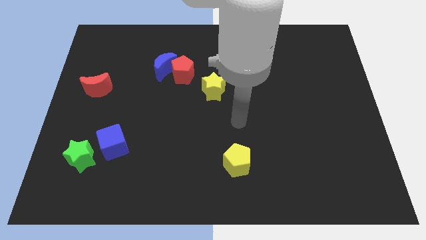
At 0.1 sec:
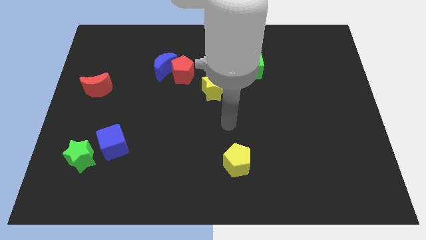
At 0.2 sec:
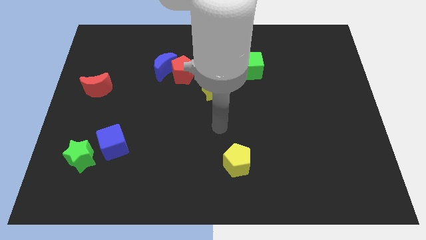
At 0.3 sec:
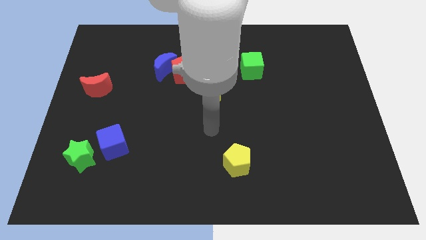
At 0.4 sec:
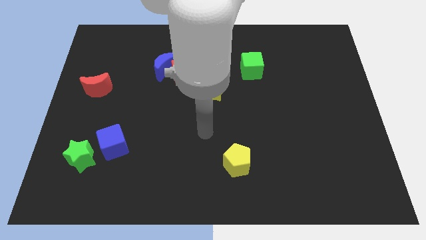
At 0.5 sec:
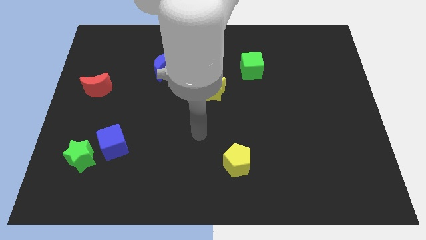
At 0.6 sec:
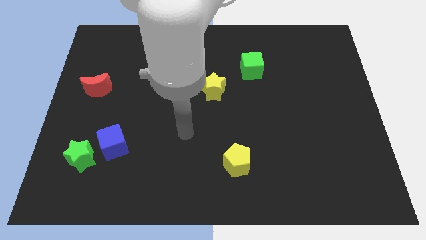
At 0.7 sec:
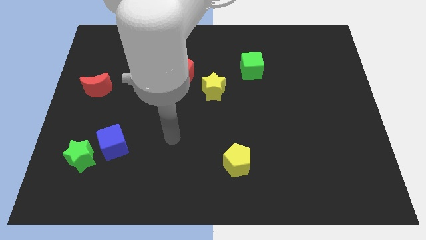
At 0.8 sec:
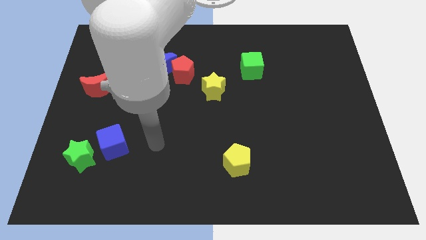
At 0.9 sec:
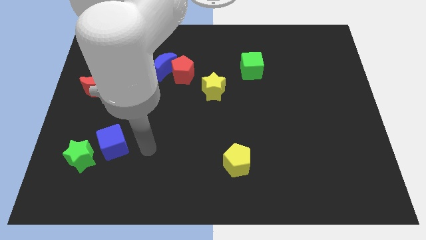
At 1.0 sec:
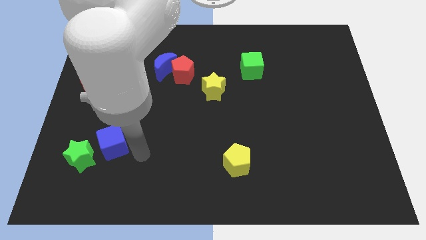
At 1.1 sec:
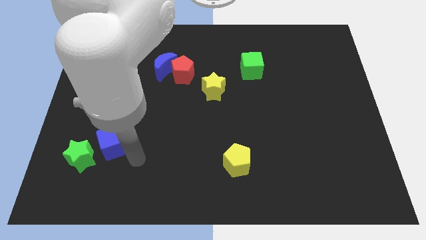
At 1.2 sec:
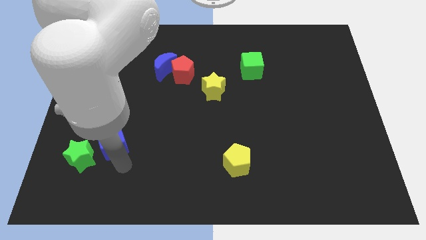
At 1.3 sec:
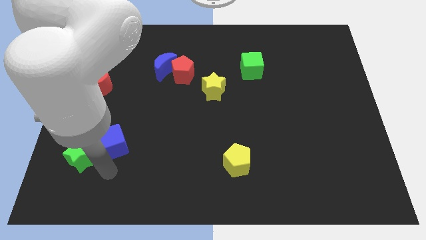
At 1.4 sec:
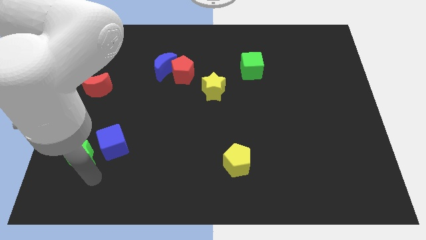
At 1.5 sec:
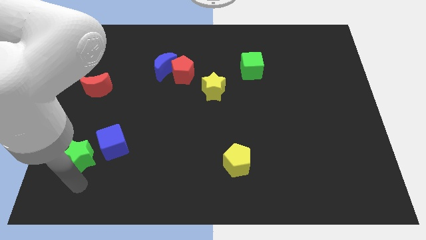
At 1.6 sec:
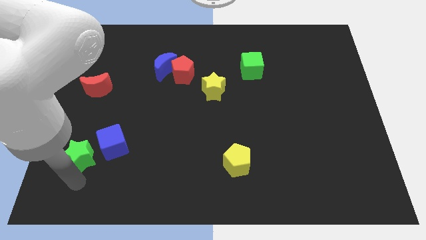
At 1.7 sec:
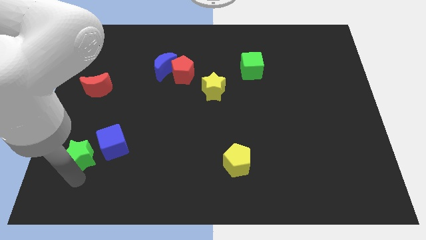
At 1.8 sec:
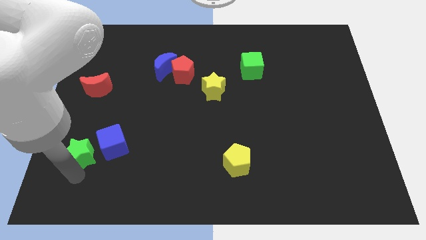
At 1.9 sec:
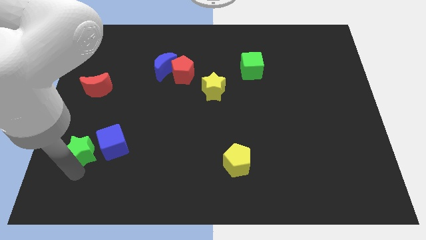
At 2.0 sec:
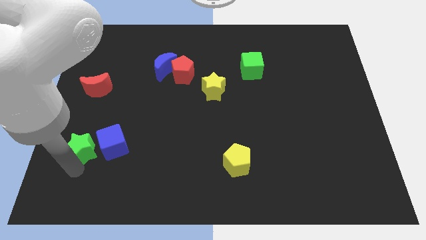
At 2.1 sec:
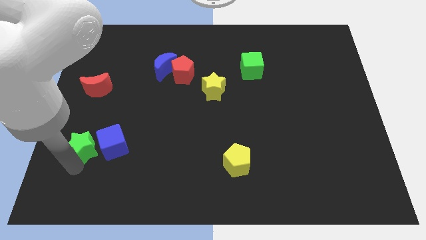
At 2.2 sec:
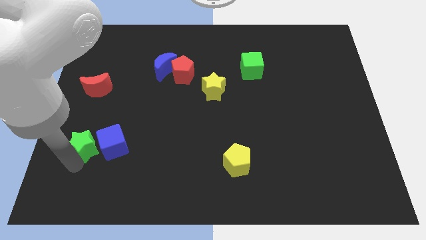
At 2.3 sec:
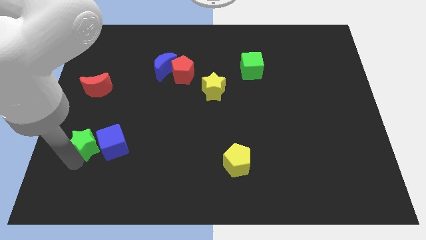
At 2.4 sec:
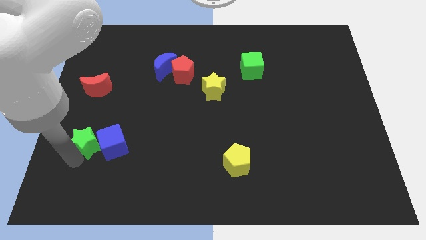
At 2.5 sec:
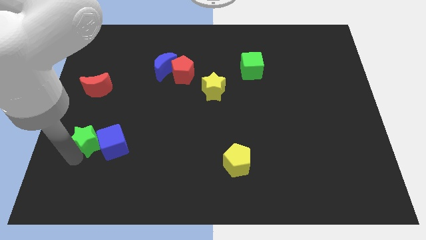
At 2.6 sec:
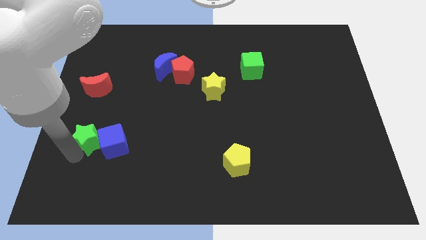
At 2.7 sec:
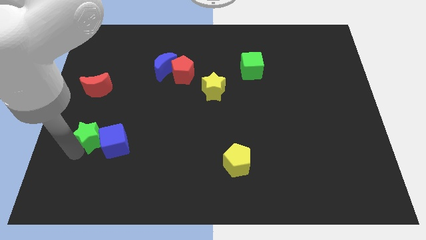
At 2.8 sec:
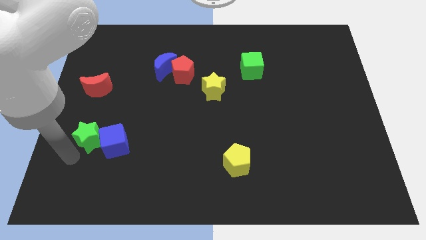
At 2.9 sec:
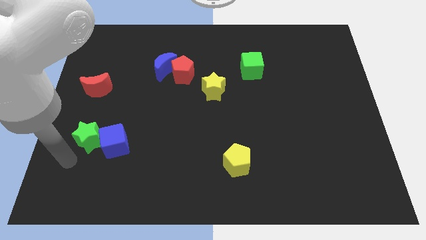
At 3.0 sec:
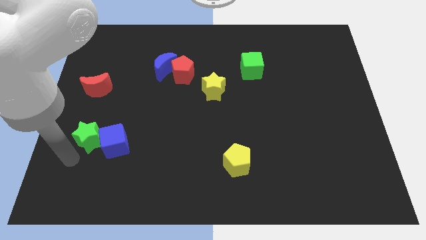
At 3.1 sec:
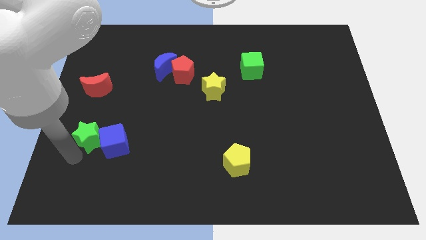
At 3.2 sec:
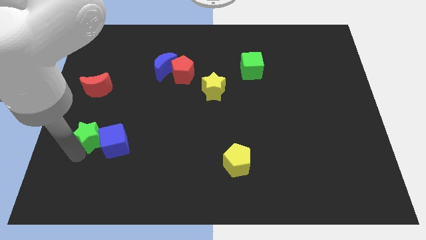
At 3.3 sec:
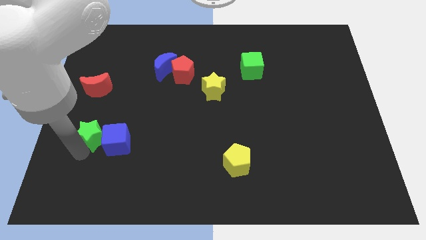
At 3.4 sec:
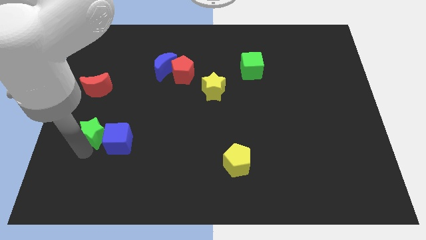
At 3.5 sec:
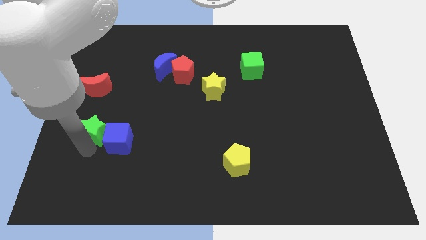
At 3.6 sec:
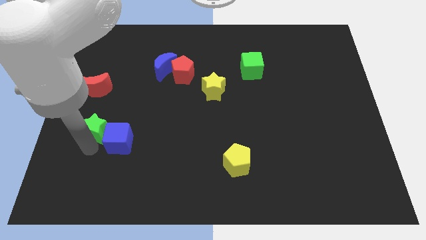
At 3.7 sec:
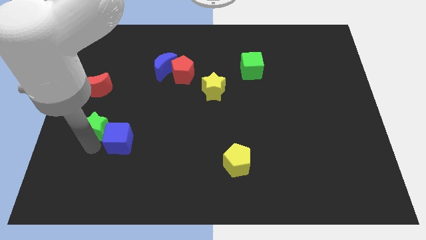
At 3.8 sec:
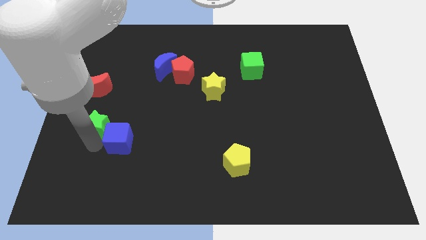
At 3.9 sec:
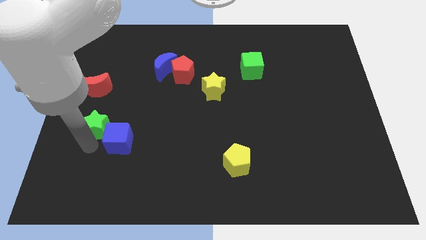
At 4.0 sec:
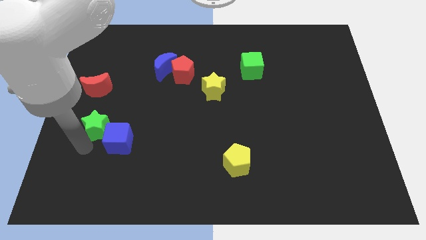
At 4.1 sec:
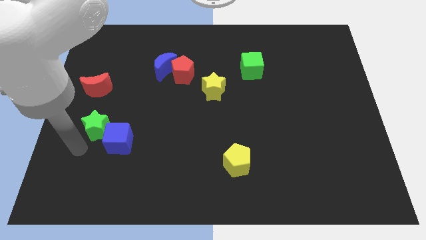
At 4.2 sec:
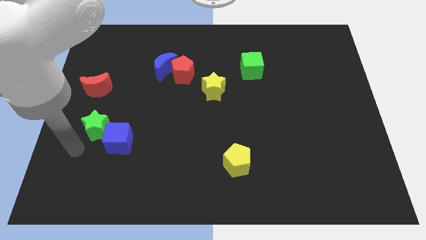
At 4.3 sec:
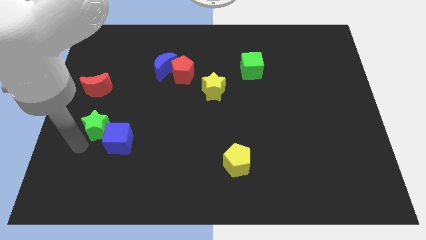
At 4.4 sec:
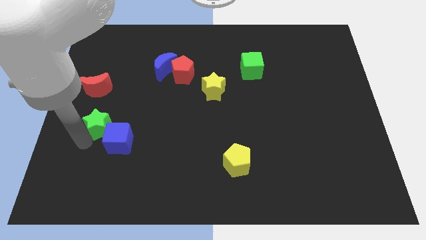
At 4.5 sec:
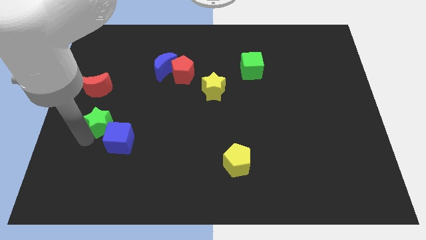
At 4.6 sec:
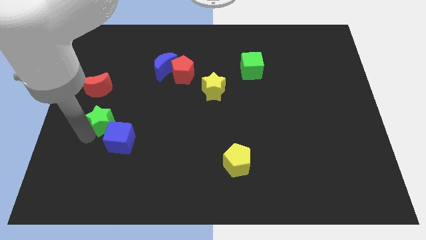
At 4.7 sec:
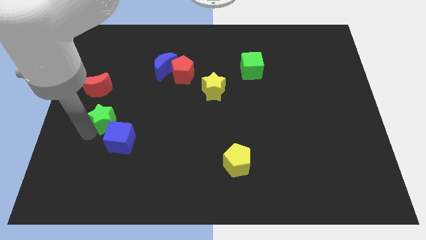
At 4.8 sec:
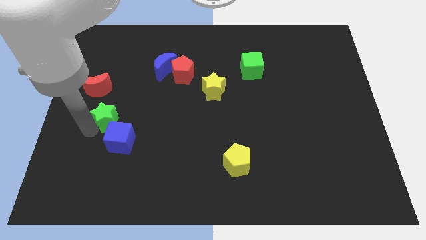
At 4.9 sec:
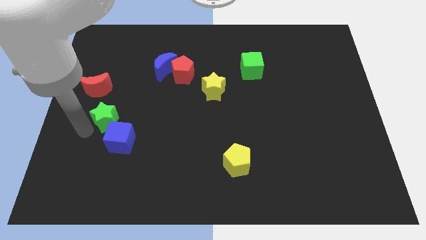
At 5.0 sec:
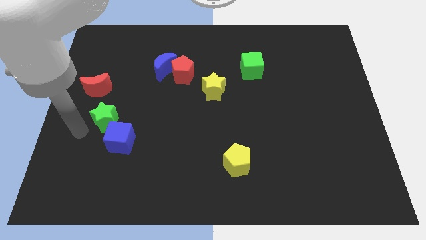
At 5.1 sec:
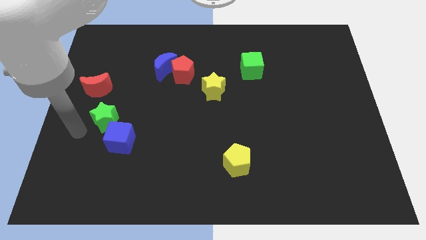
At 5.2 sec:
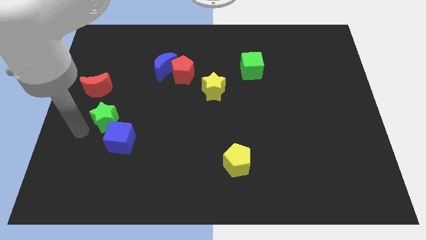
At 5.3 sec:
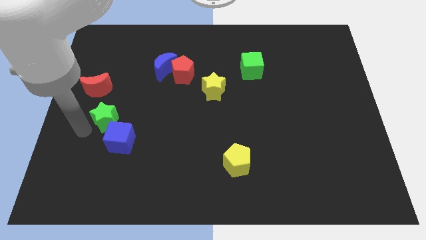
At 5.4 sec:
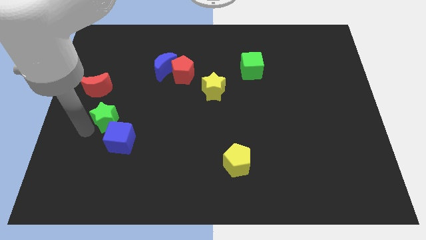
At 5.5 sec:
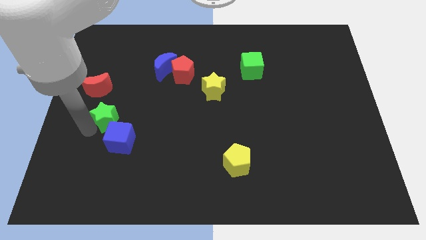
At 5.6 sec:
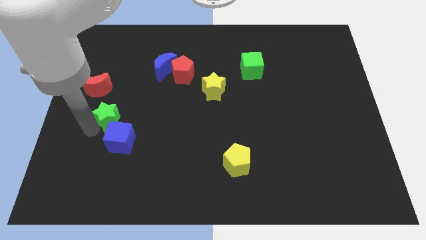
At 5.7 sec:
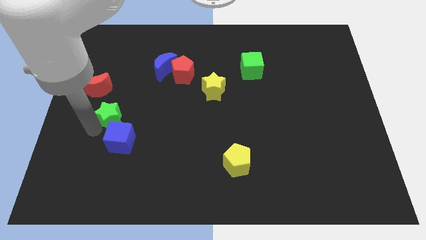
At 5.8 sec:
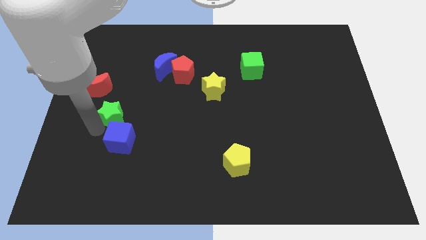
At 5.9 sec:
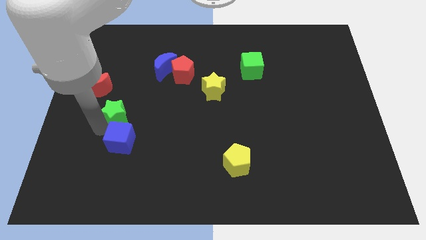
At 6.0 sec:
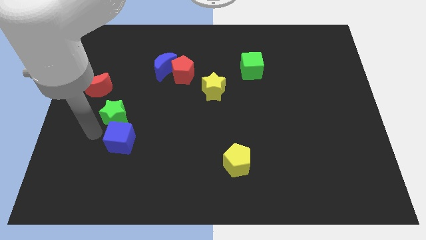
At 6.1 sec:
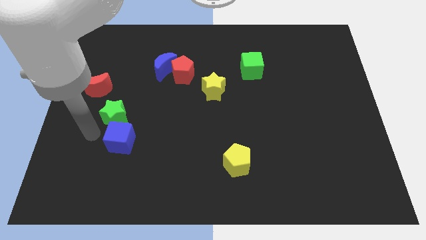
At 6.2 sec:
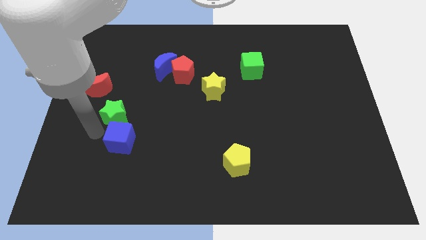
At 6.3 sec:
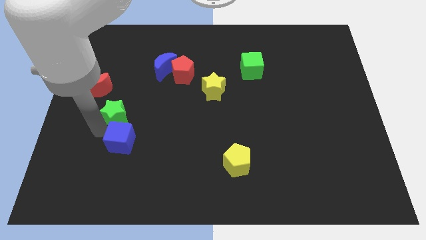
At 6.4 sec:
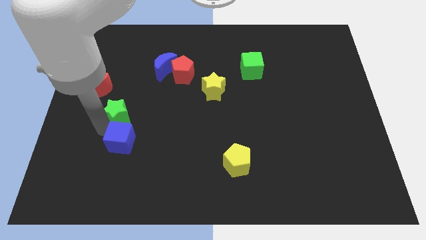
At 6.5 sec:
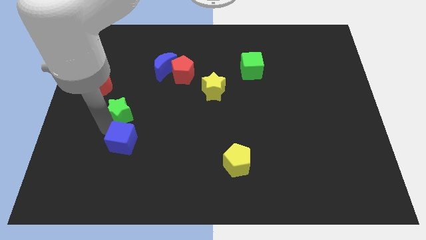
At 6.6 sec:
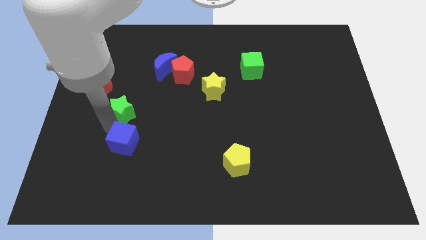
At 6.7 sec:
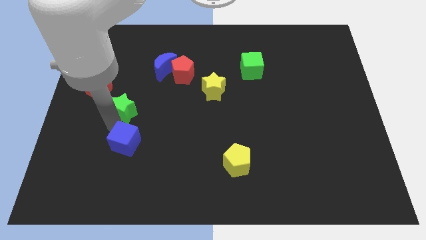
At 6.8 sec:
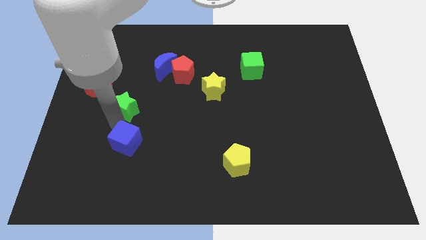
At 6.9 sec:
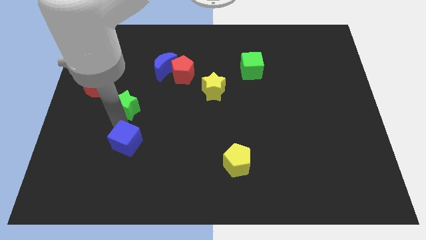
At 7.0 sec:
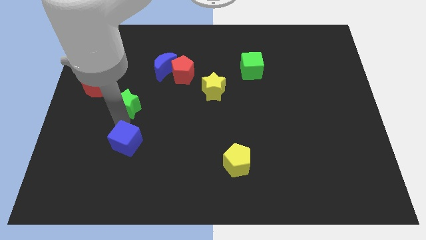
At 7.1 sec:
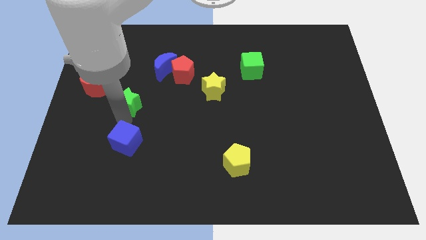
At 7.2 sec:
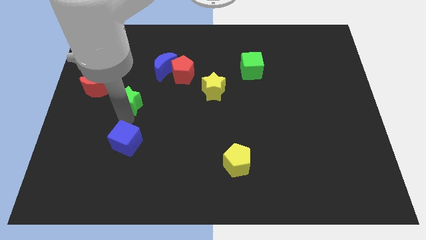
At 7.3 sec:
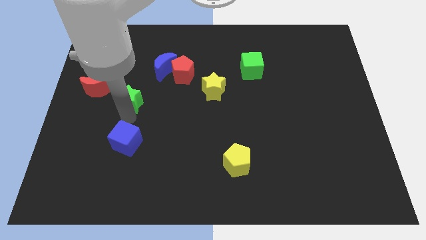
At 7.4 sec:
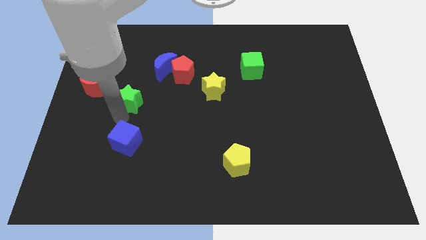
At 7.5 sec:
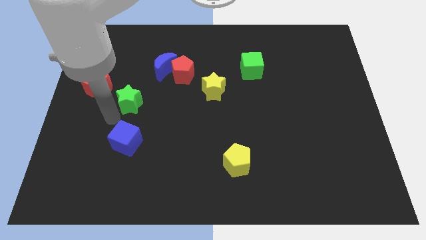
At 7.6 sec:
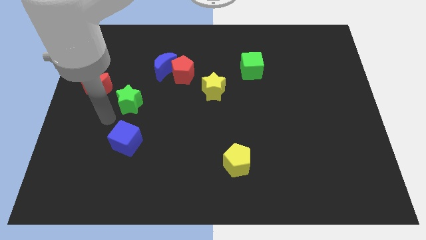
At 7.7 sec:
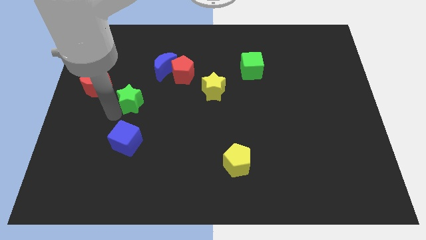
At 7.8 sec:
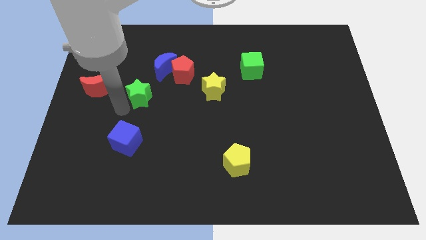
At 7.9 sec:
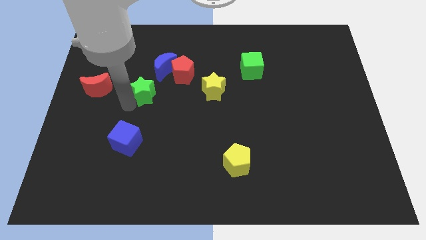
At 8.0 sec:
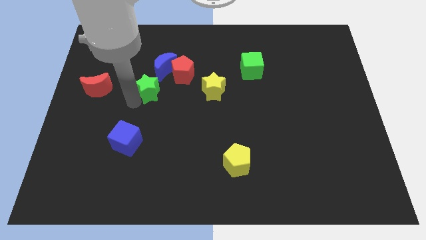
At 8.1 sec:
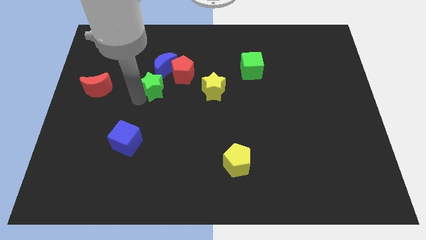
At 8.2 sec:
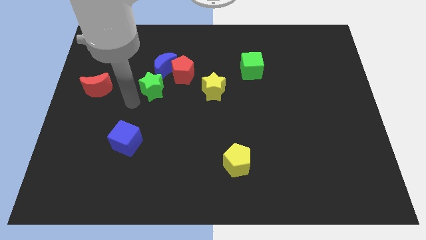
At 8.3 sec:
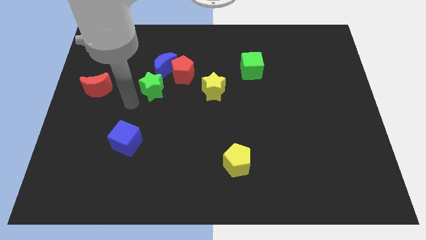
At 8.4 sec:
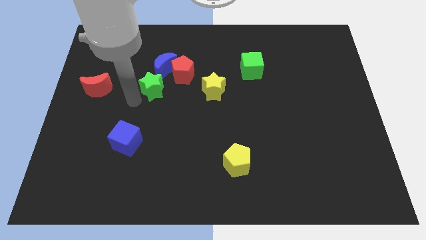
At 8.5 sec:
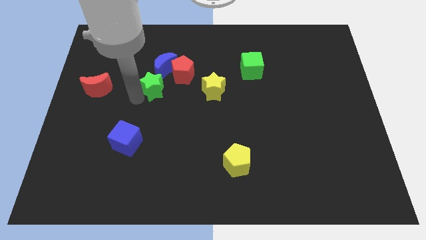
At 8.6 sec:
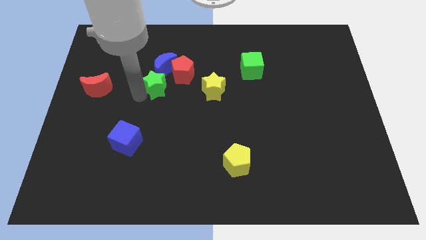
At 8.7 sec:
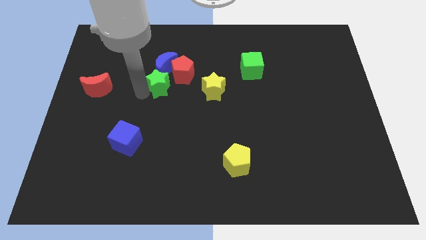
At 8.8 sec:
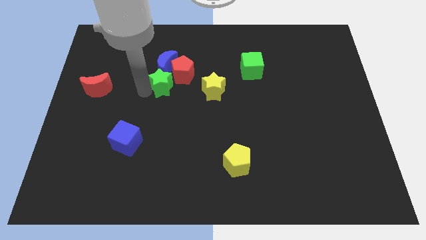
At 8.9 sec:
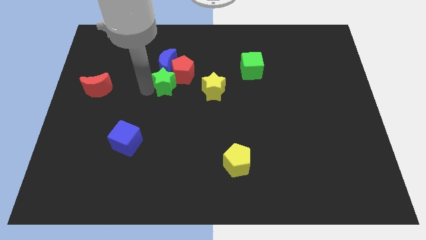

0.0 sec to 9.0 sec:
slide the green star close to the red pentagon
